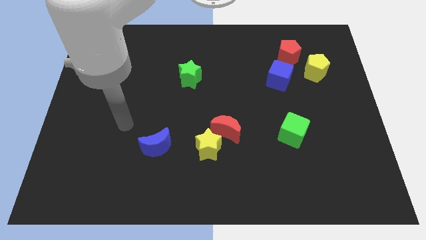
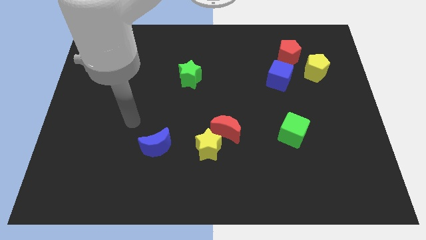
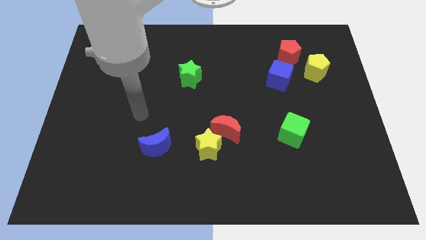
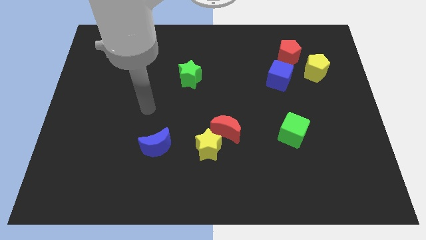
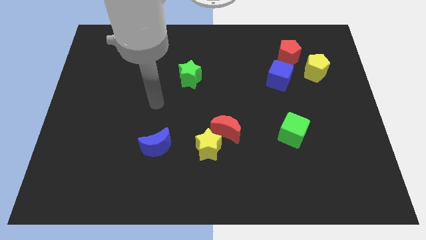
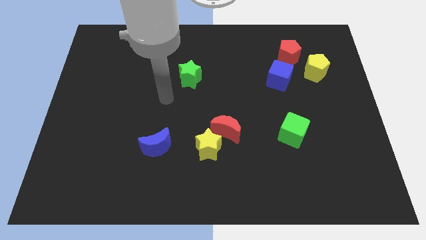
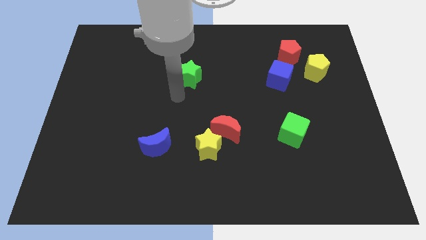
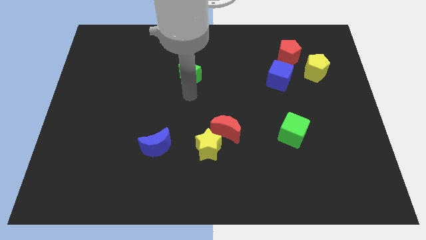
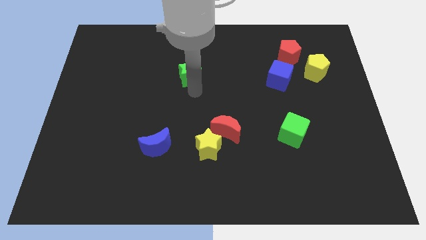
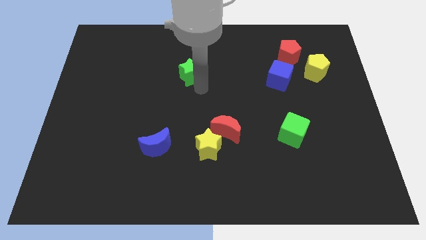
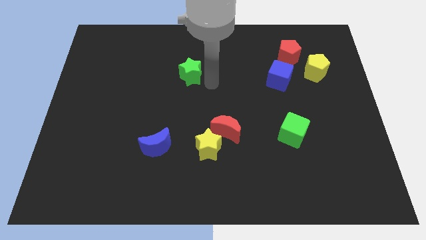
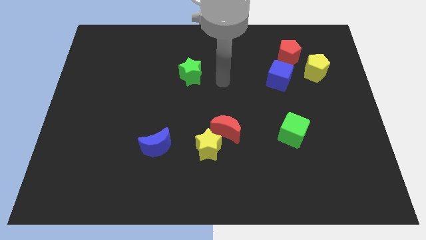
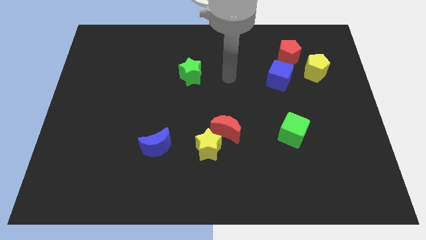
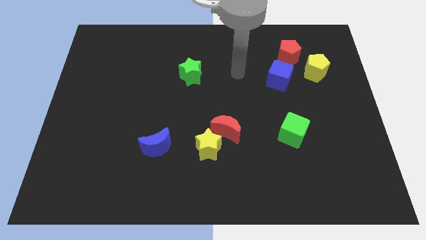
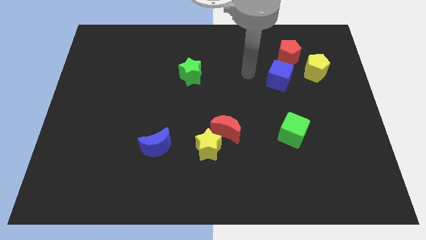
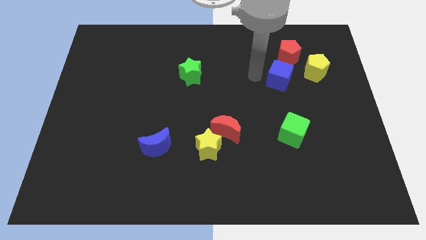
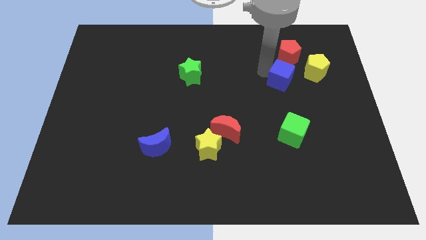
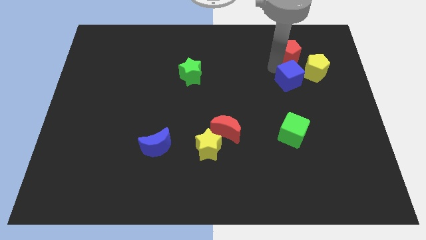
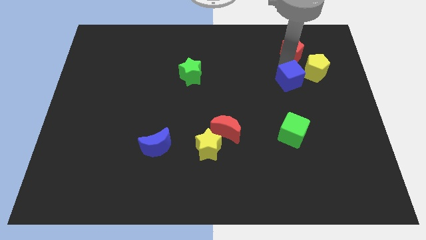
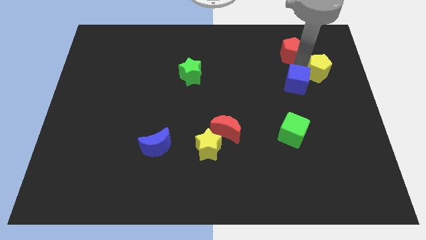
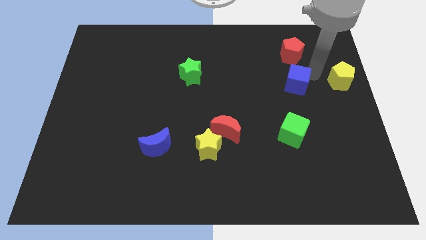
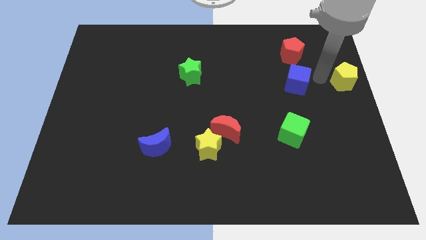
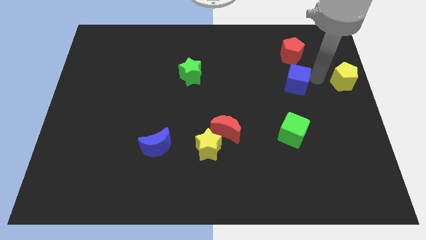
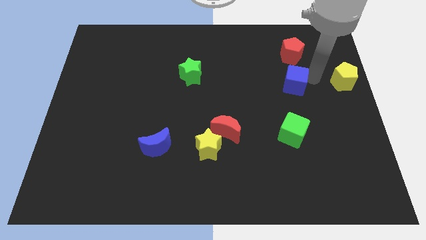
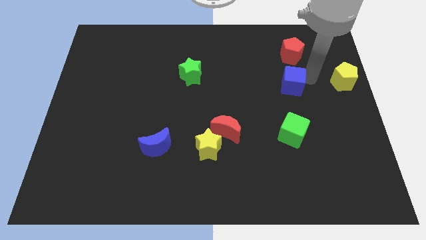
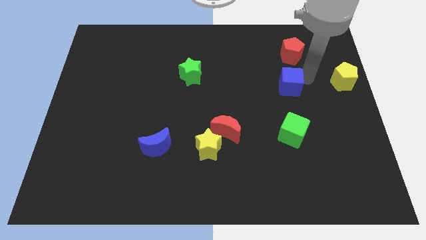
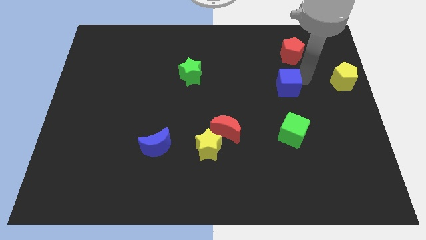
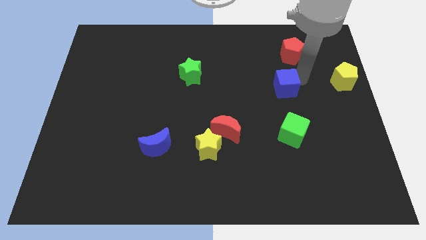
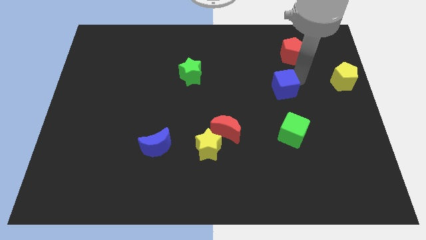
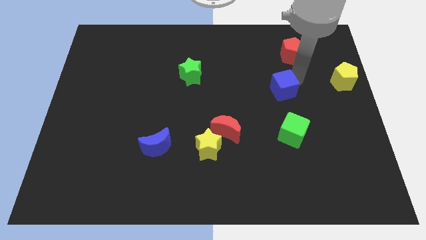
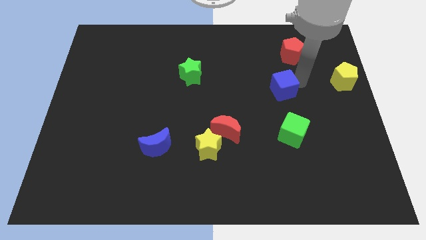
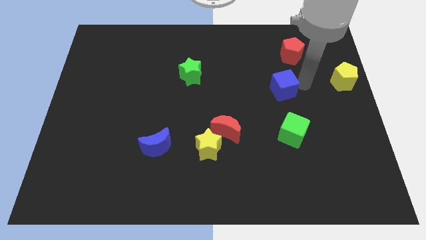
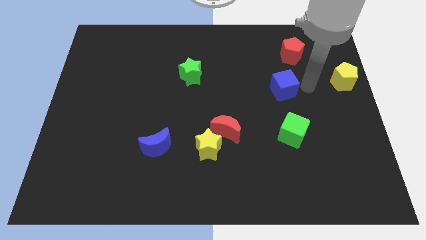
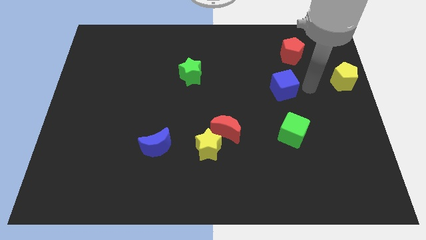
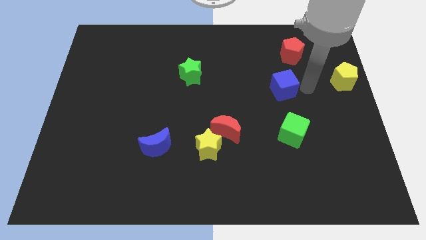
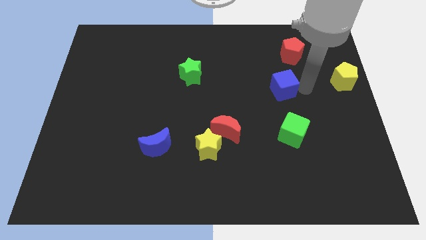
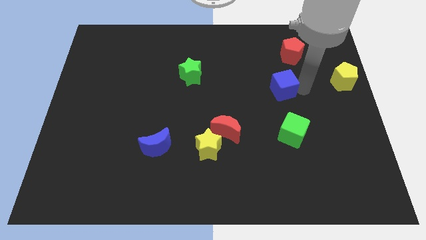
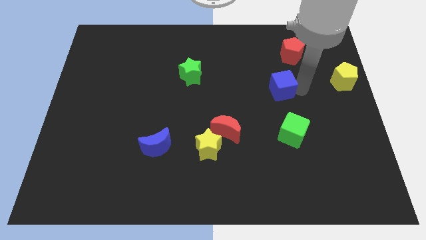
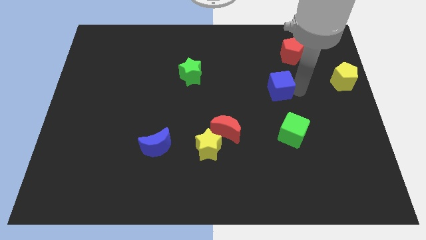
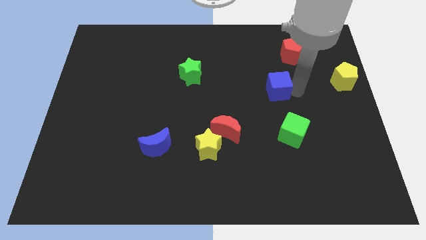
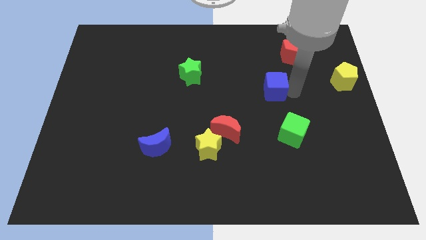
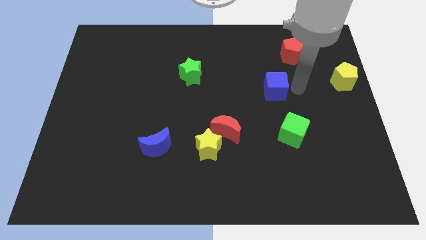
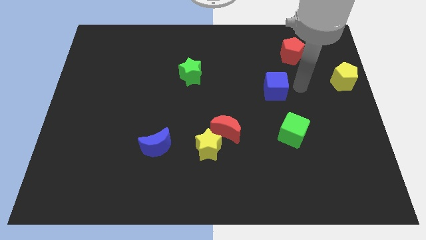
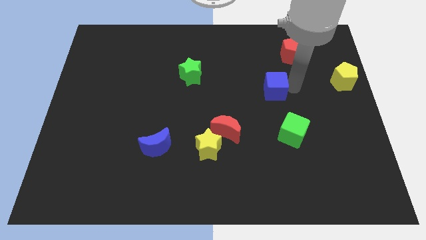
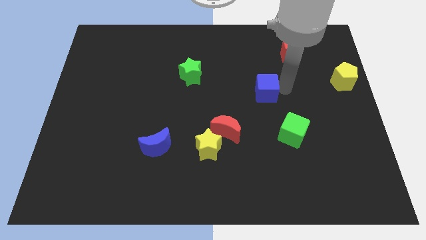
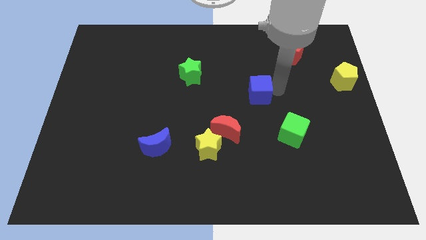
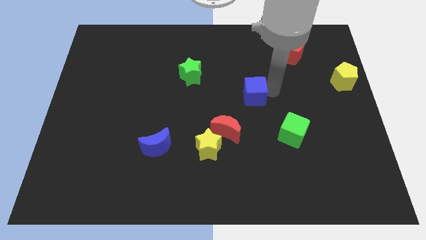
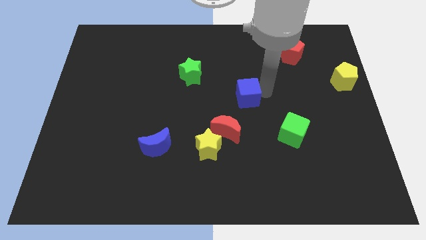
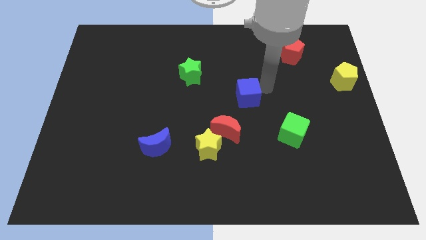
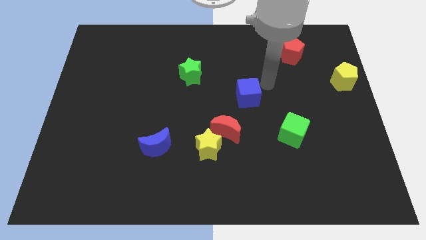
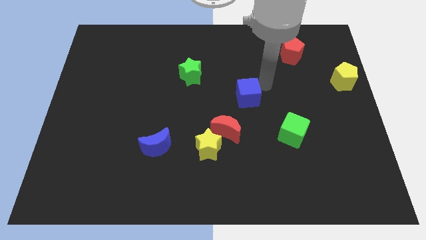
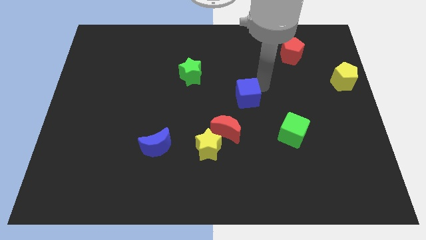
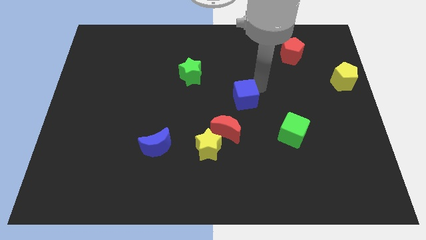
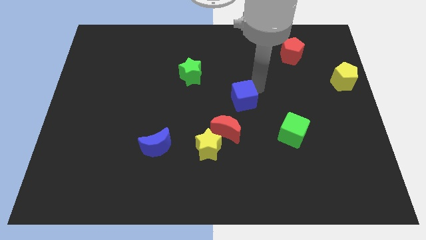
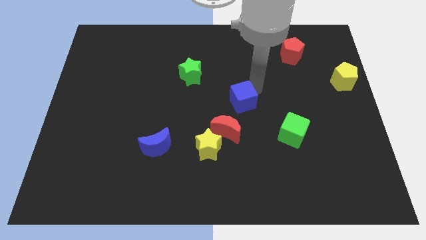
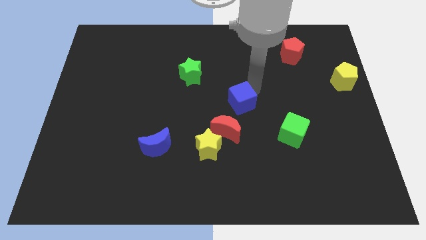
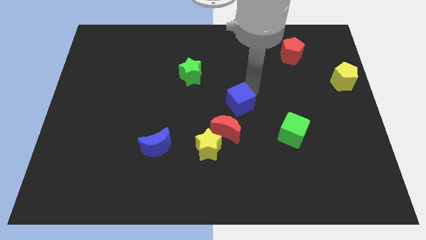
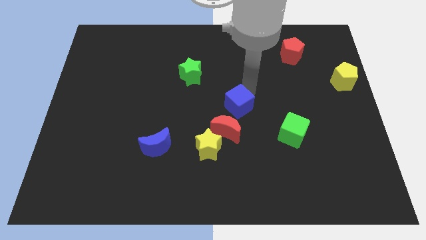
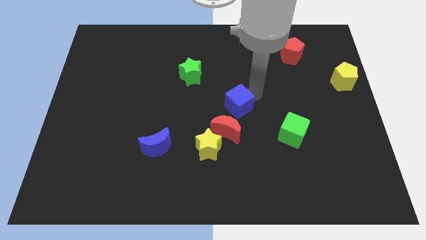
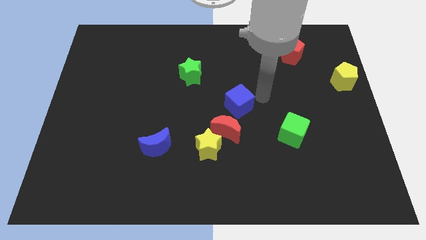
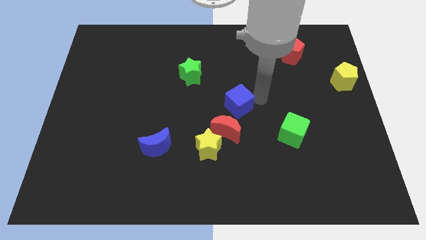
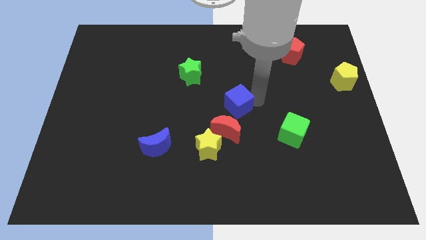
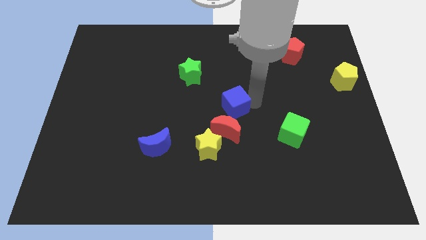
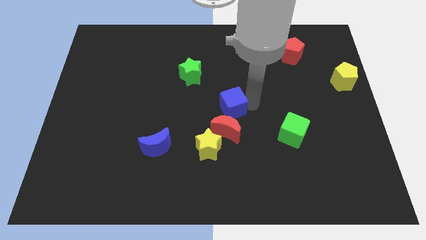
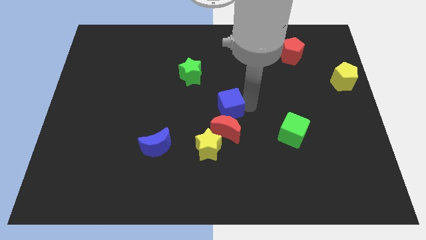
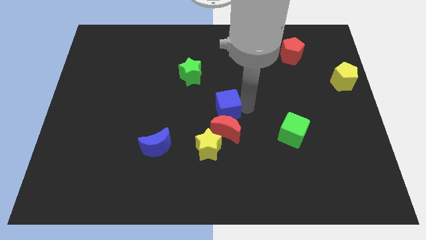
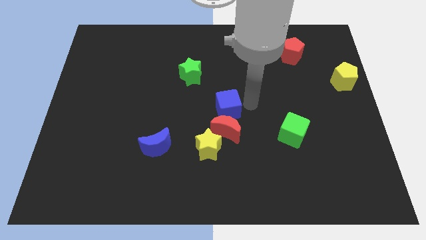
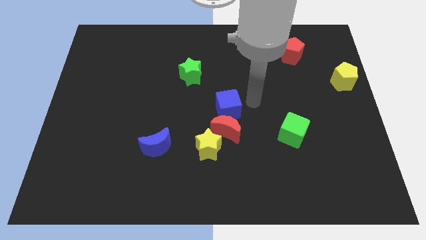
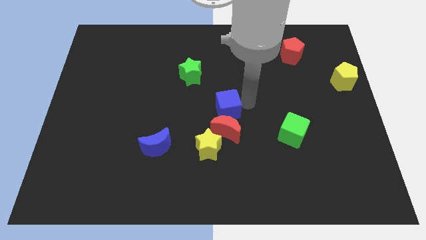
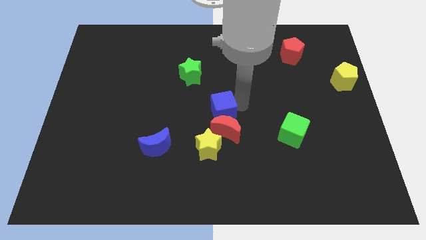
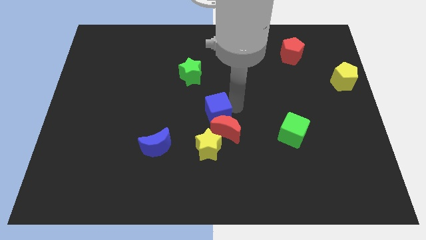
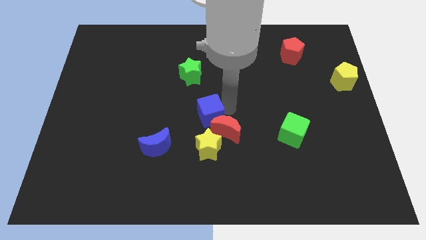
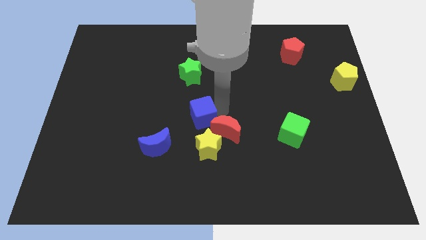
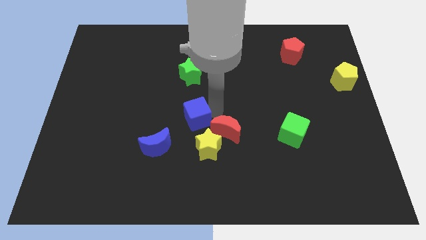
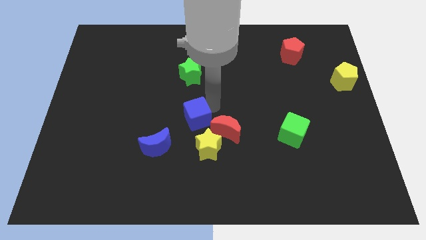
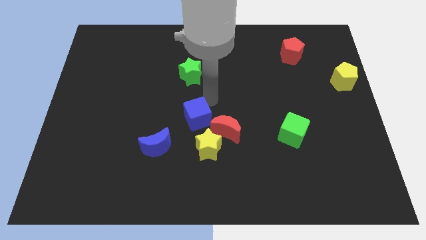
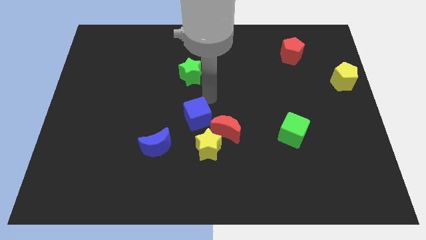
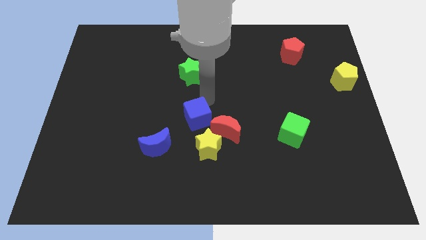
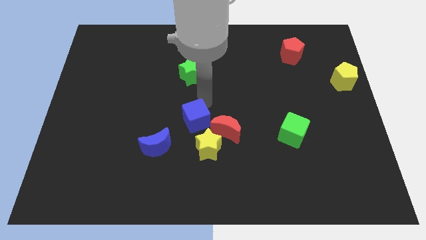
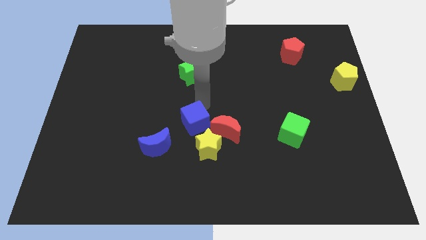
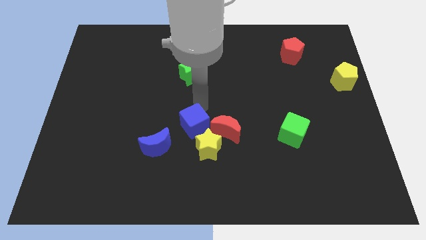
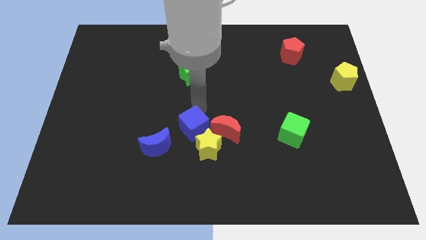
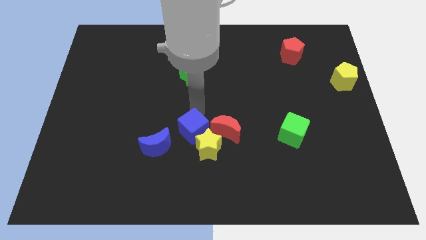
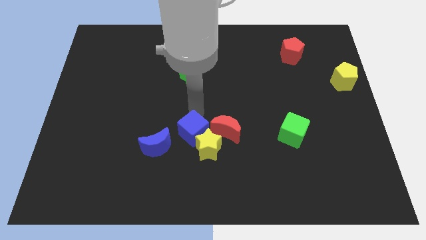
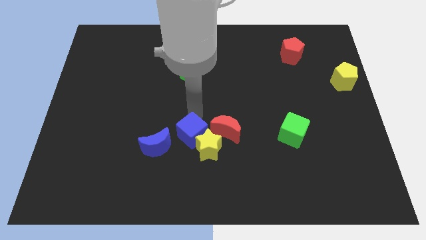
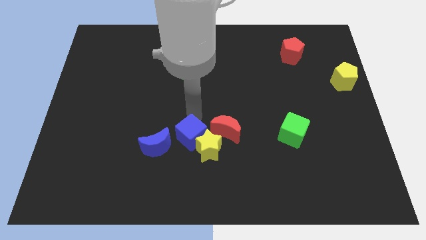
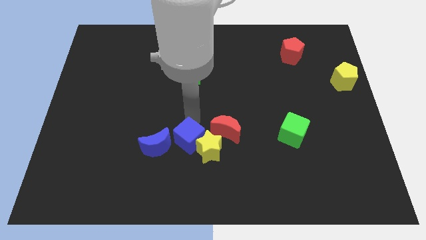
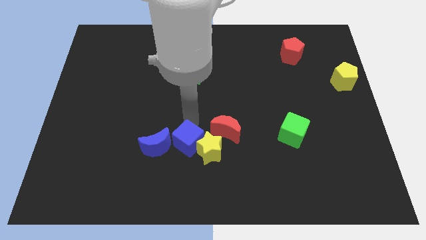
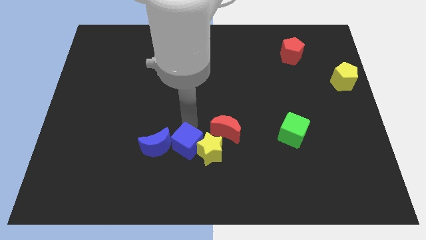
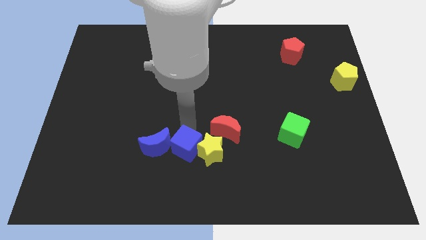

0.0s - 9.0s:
push the blue cube to the bottom right side of the blue moon
